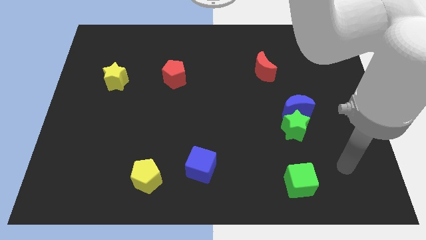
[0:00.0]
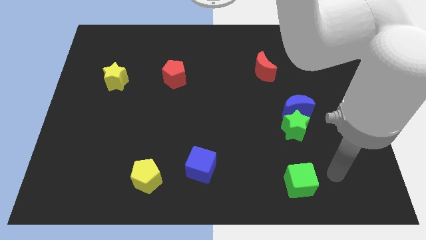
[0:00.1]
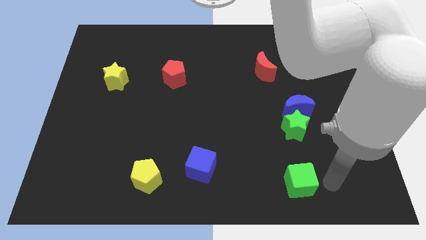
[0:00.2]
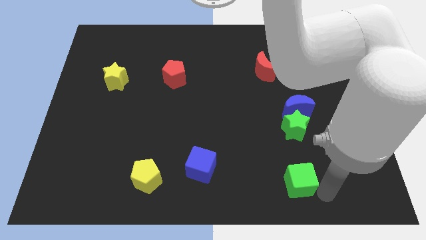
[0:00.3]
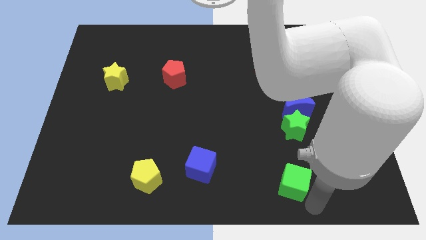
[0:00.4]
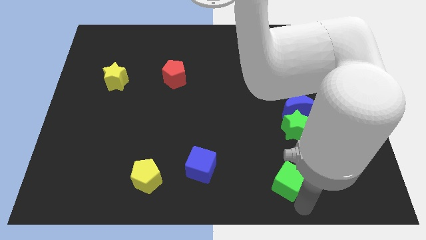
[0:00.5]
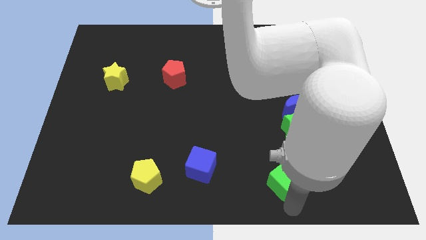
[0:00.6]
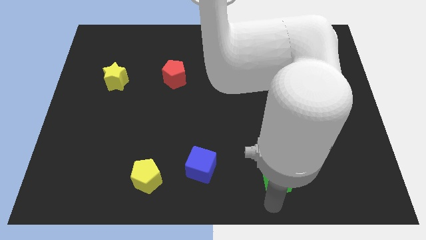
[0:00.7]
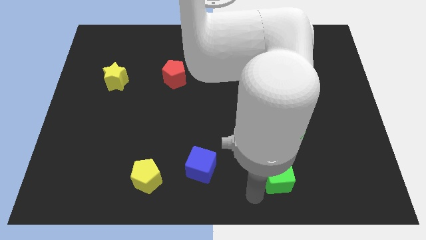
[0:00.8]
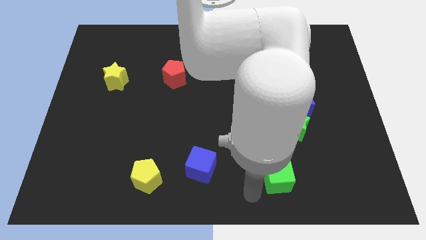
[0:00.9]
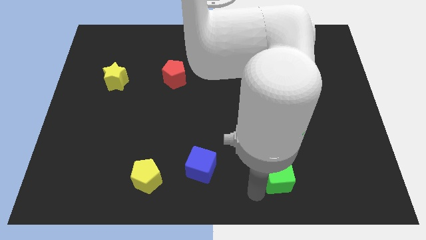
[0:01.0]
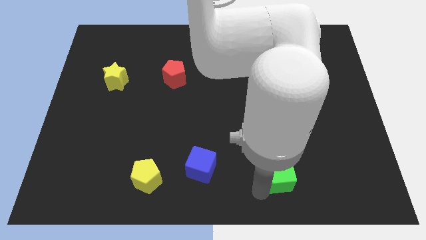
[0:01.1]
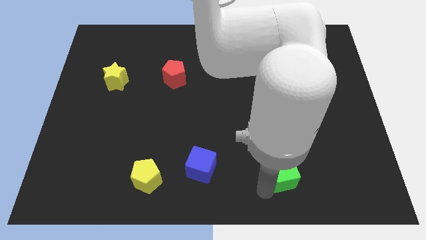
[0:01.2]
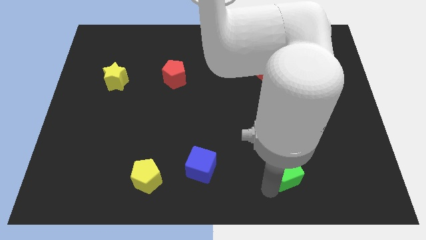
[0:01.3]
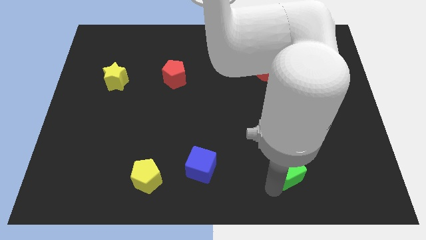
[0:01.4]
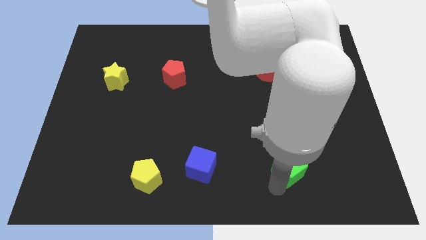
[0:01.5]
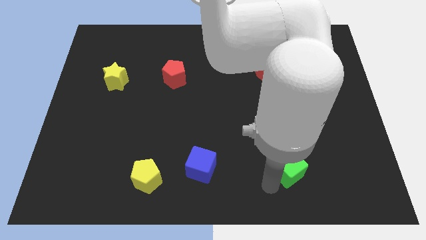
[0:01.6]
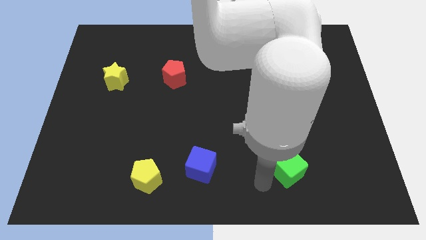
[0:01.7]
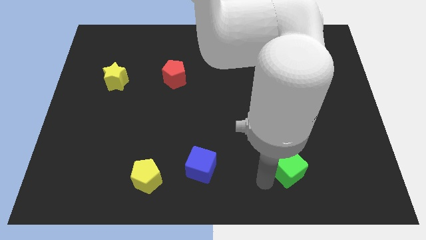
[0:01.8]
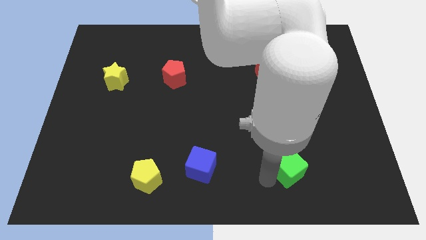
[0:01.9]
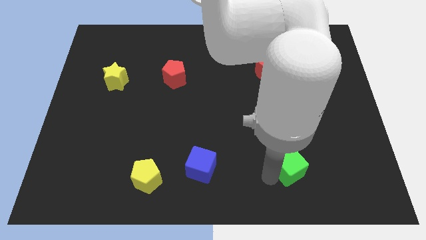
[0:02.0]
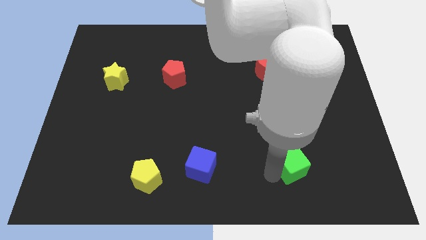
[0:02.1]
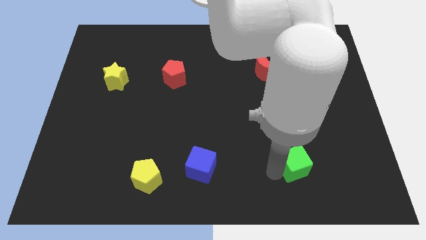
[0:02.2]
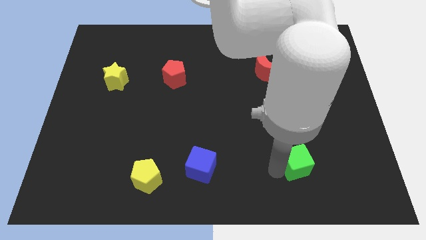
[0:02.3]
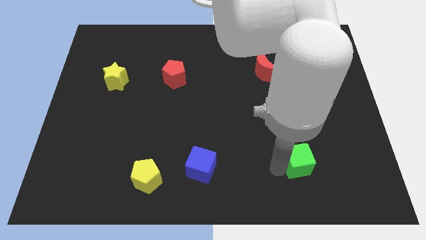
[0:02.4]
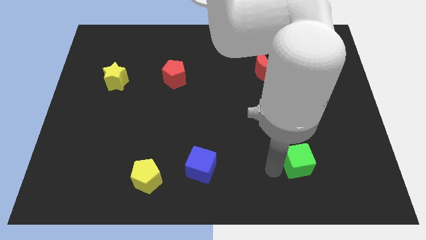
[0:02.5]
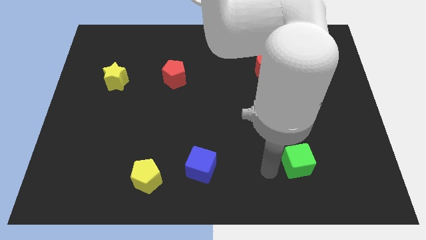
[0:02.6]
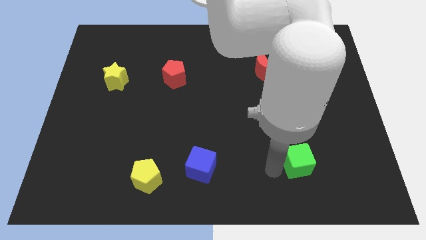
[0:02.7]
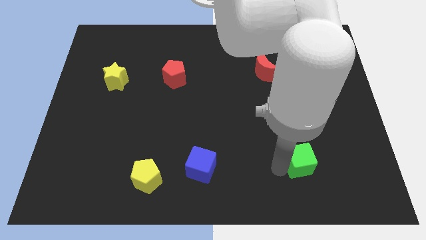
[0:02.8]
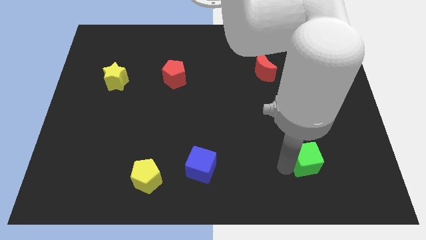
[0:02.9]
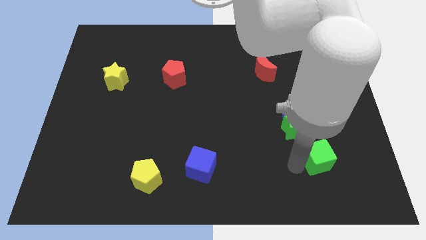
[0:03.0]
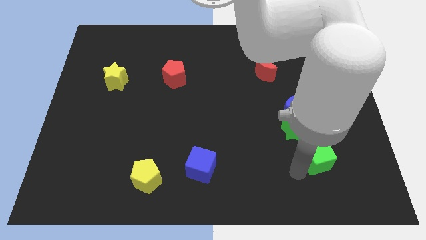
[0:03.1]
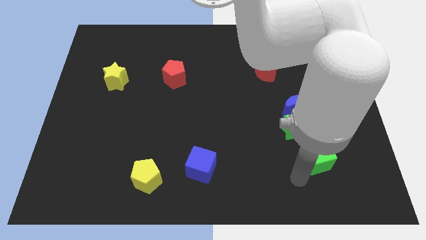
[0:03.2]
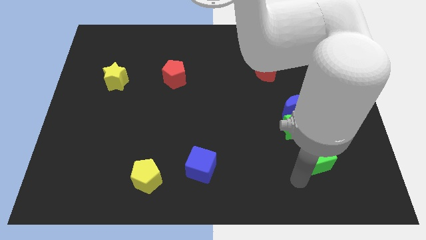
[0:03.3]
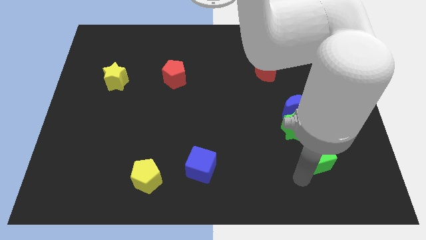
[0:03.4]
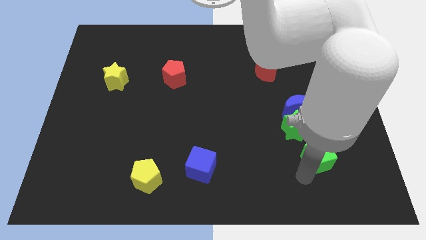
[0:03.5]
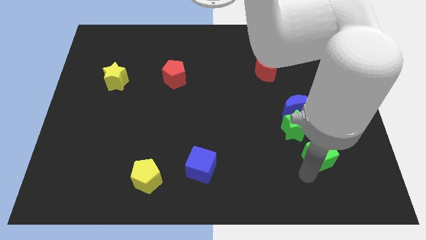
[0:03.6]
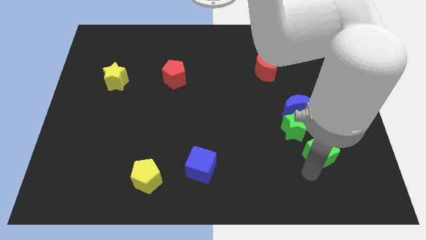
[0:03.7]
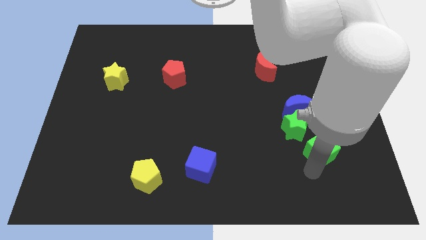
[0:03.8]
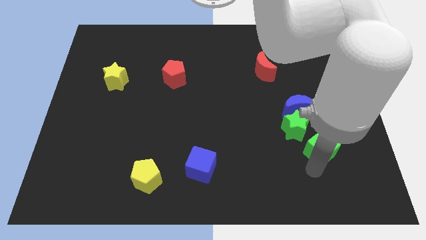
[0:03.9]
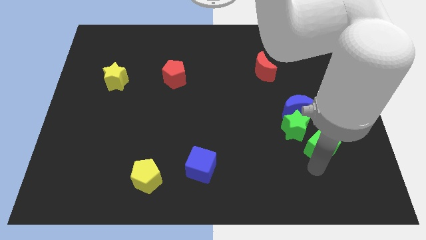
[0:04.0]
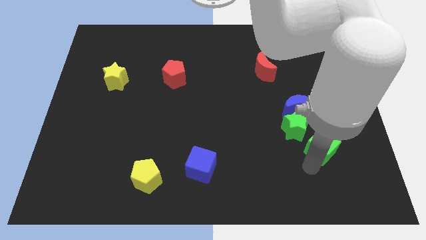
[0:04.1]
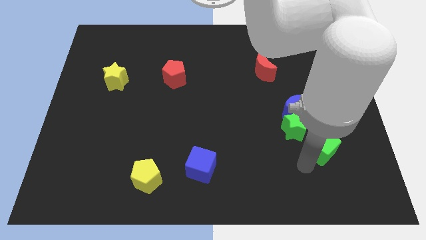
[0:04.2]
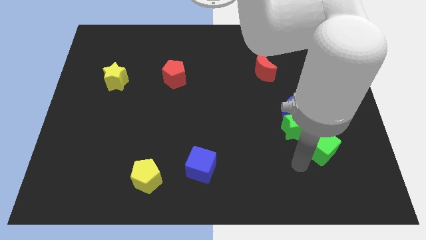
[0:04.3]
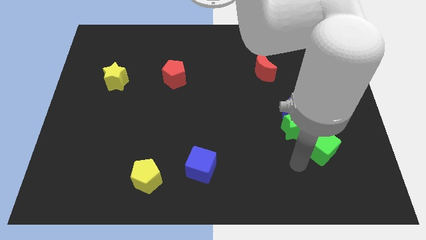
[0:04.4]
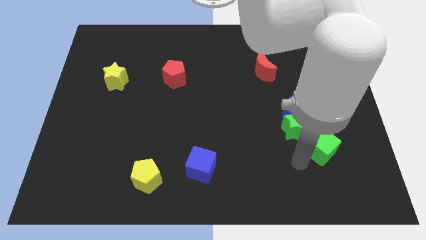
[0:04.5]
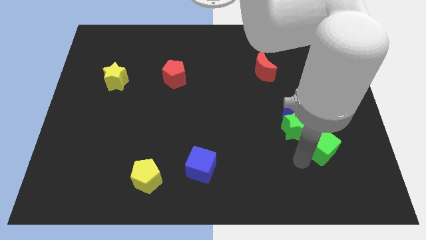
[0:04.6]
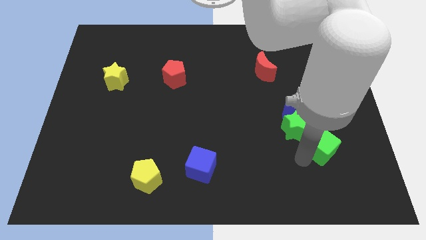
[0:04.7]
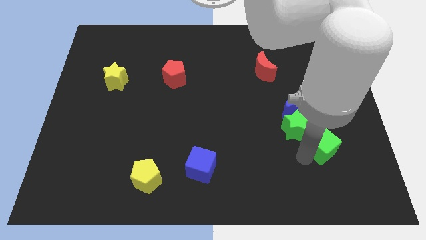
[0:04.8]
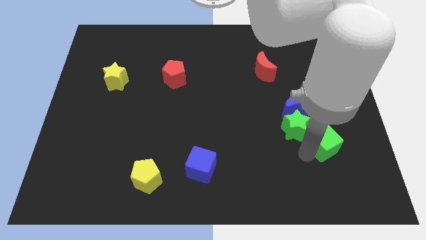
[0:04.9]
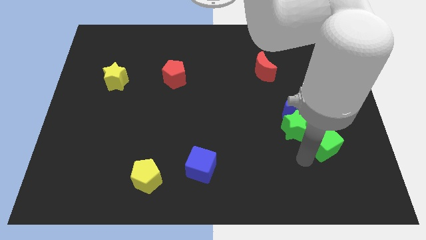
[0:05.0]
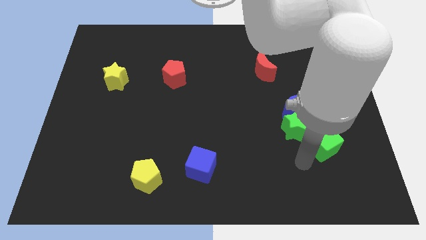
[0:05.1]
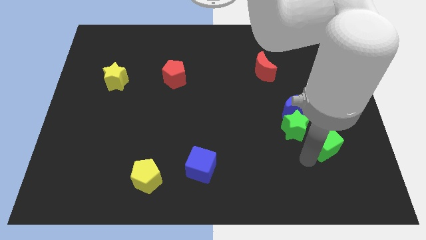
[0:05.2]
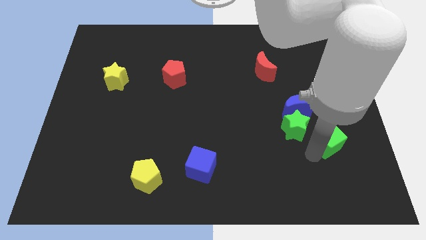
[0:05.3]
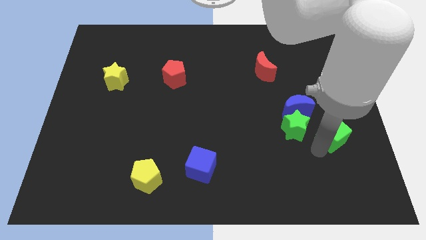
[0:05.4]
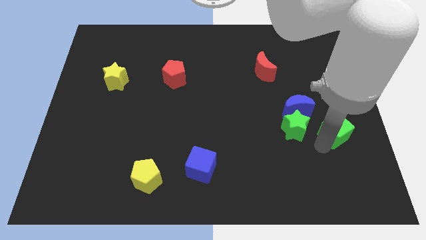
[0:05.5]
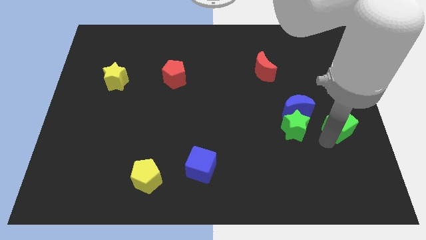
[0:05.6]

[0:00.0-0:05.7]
slide the green cube to the right side of the board
